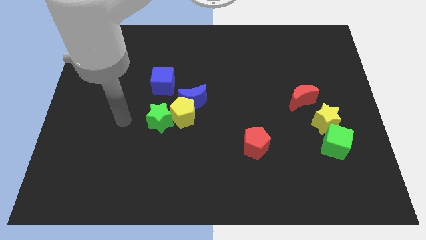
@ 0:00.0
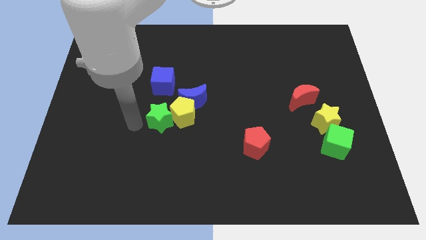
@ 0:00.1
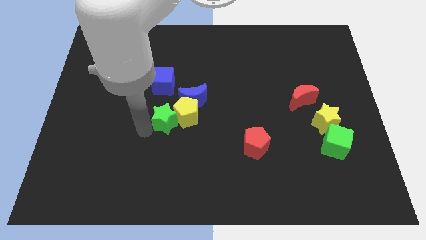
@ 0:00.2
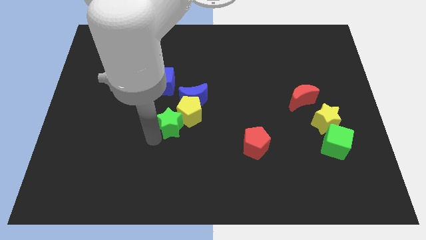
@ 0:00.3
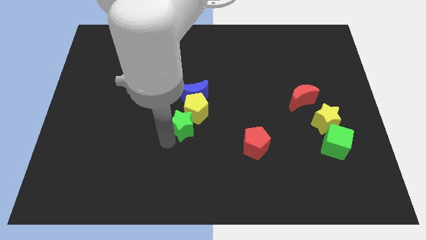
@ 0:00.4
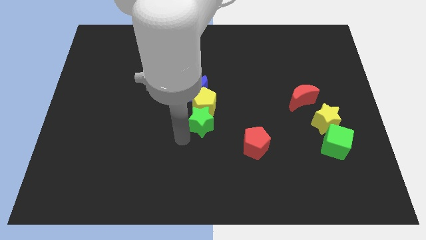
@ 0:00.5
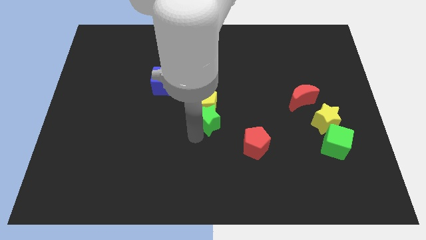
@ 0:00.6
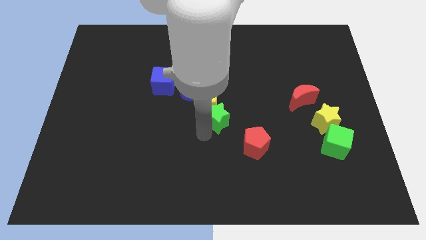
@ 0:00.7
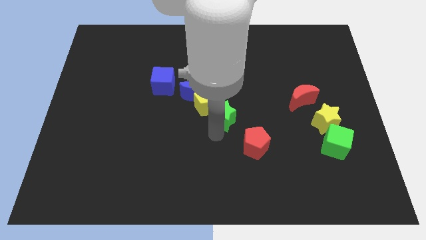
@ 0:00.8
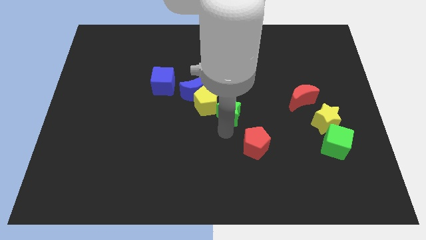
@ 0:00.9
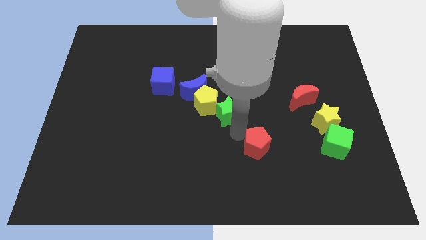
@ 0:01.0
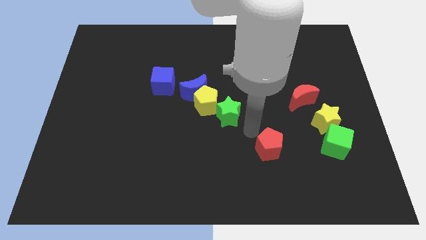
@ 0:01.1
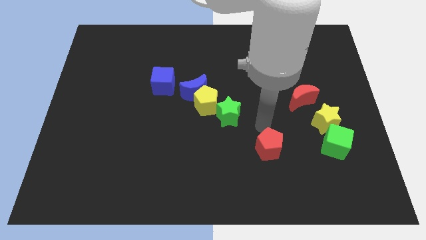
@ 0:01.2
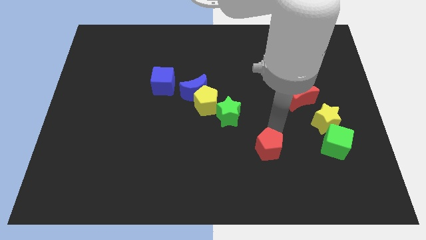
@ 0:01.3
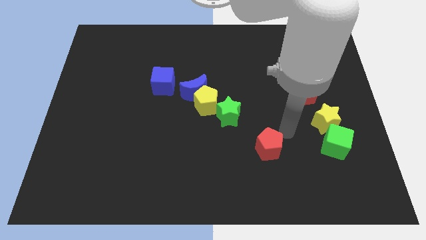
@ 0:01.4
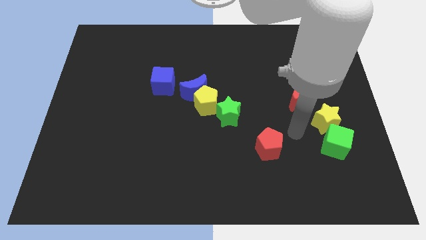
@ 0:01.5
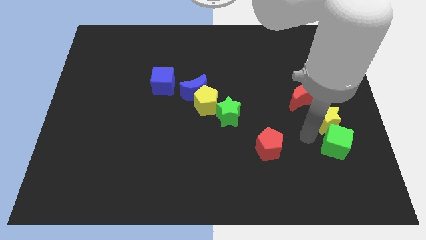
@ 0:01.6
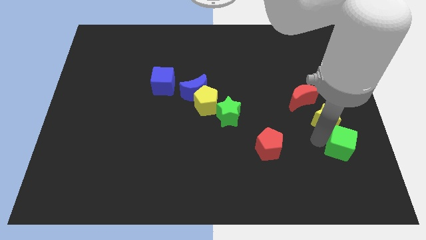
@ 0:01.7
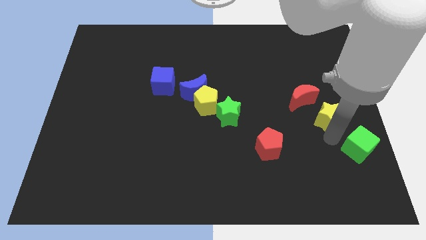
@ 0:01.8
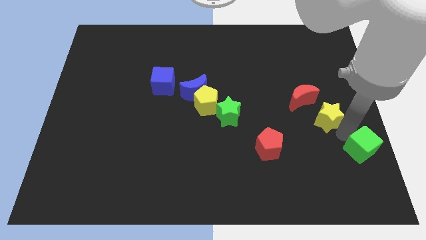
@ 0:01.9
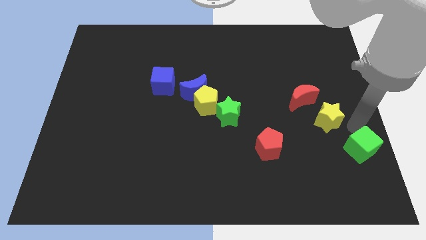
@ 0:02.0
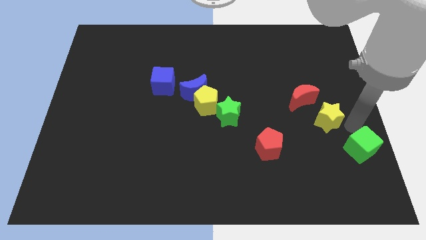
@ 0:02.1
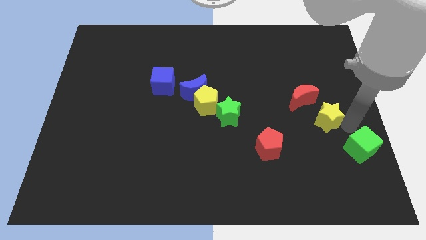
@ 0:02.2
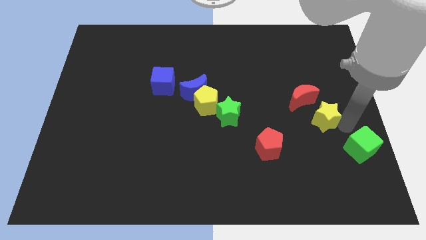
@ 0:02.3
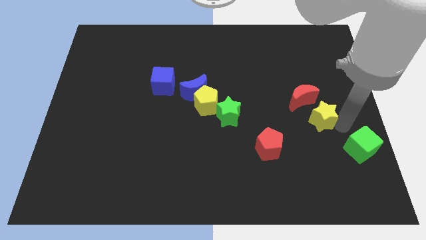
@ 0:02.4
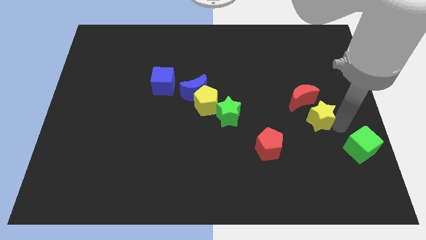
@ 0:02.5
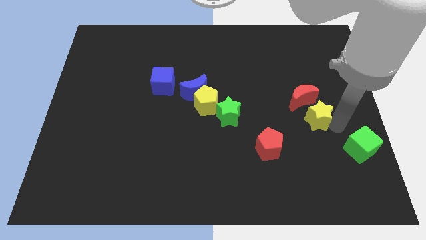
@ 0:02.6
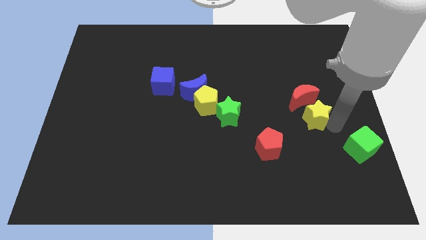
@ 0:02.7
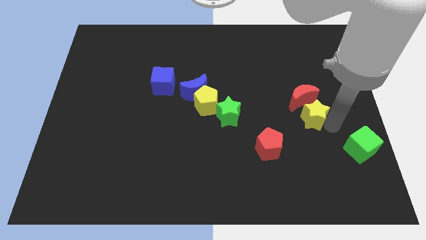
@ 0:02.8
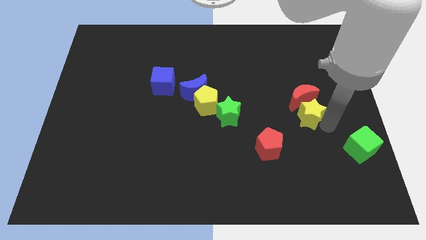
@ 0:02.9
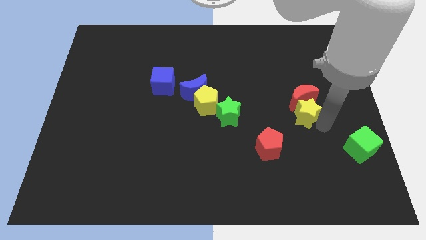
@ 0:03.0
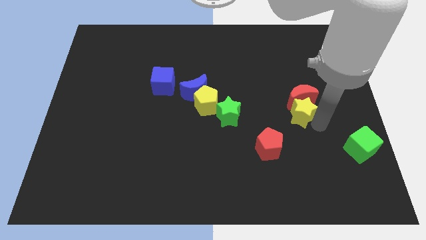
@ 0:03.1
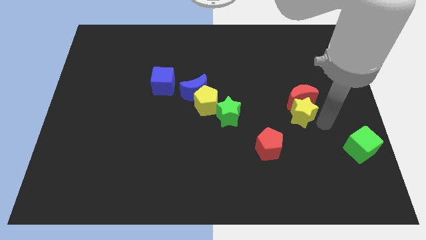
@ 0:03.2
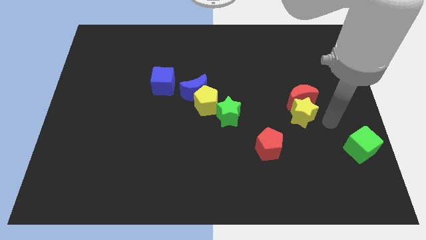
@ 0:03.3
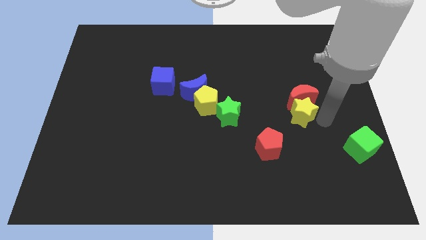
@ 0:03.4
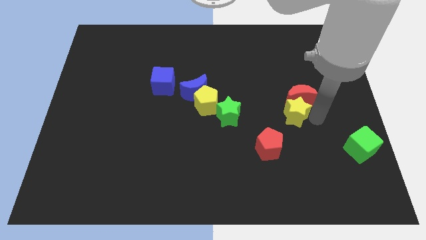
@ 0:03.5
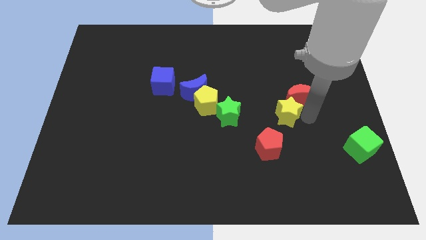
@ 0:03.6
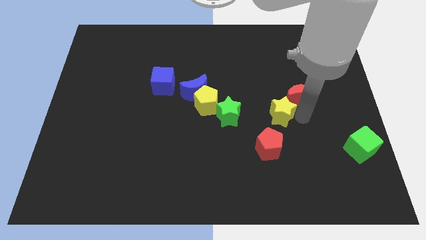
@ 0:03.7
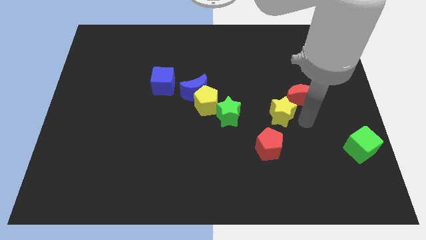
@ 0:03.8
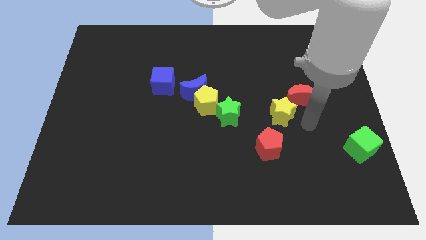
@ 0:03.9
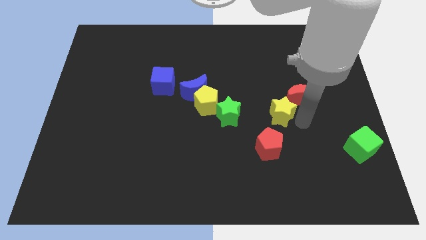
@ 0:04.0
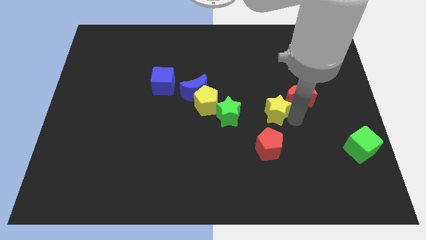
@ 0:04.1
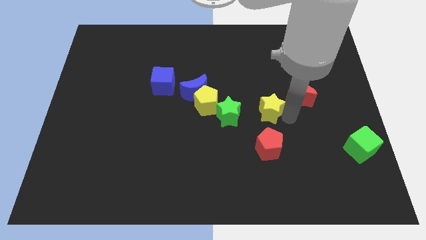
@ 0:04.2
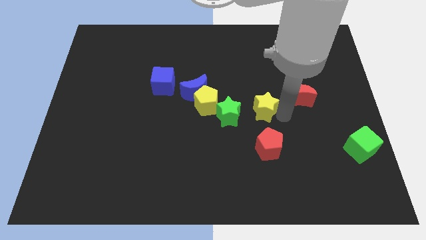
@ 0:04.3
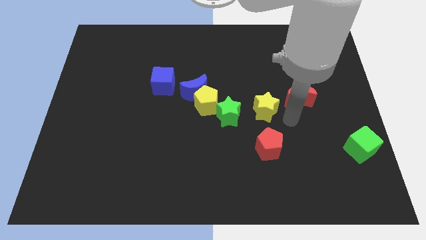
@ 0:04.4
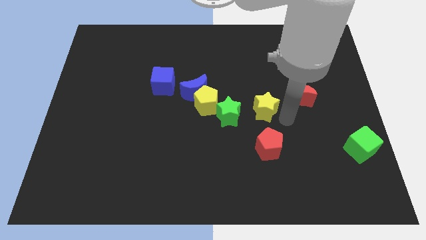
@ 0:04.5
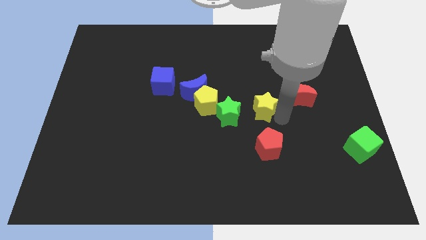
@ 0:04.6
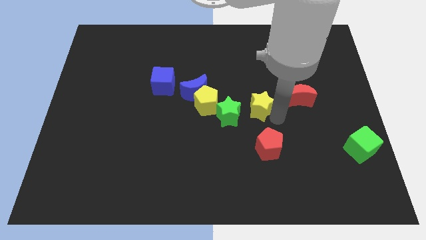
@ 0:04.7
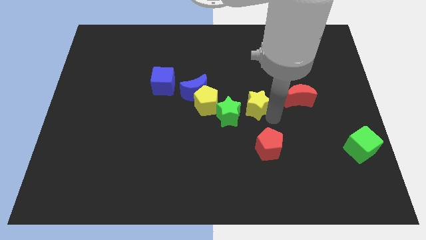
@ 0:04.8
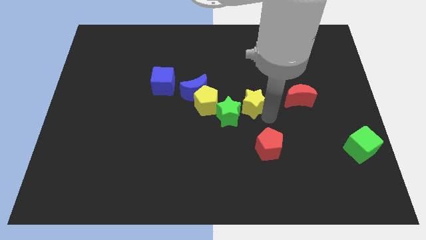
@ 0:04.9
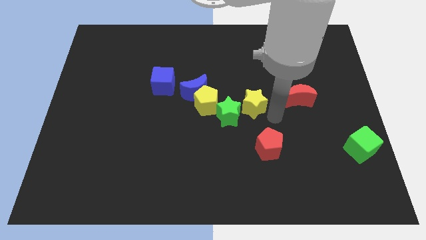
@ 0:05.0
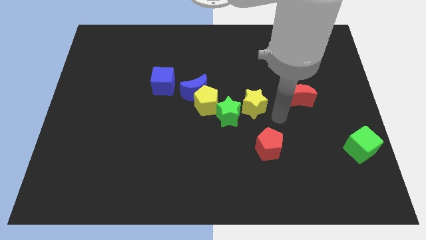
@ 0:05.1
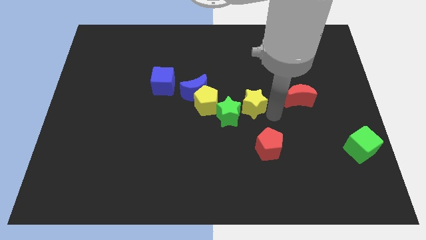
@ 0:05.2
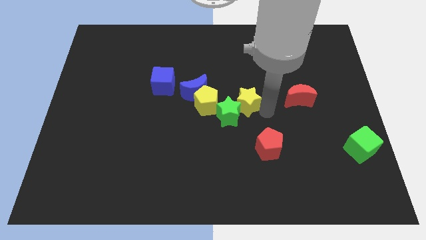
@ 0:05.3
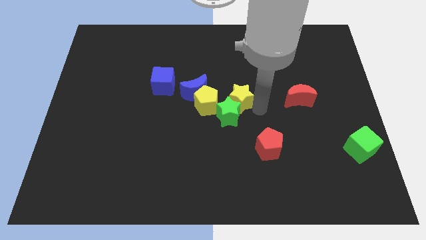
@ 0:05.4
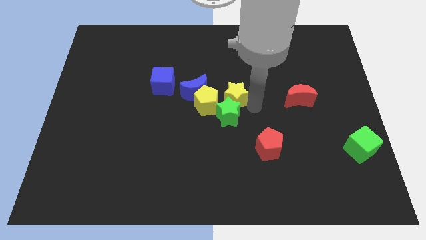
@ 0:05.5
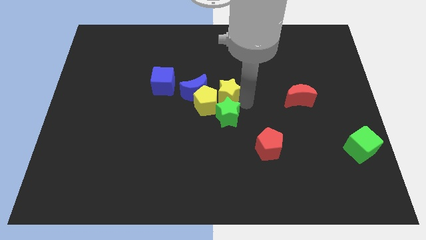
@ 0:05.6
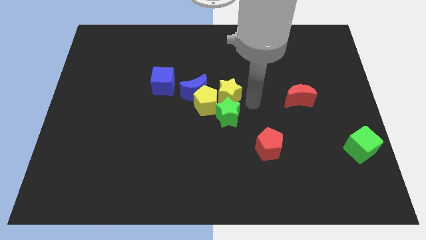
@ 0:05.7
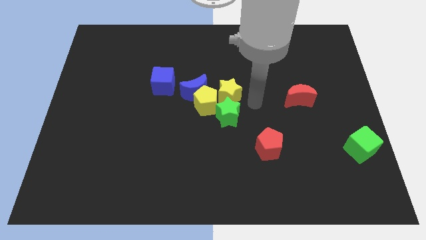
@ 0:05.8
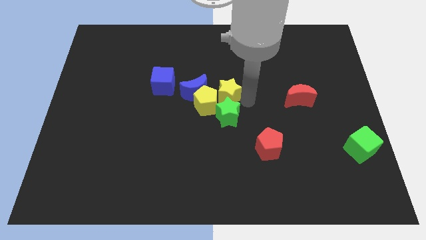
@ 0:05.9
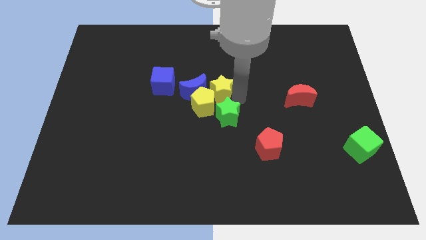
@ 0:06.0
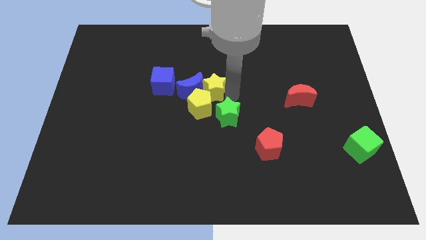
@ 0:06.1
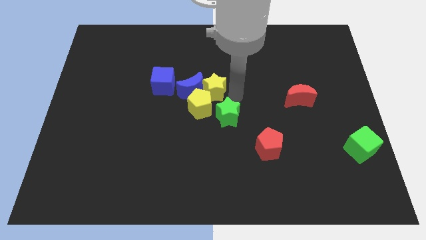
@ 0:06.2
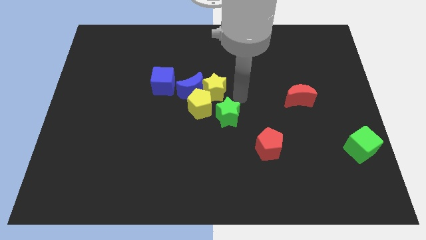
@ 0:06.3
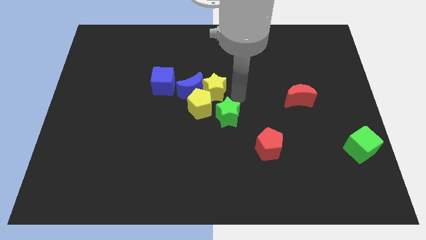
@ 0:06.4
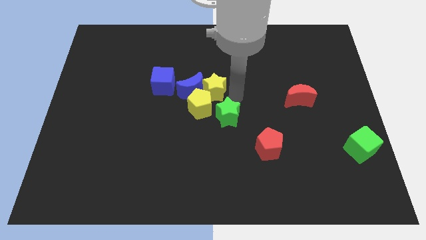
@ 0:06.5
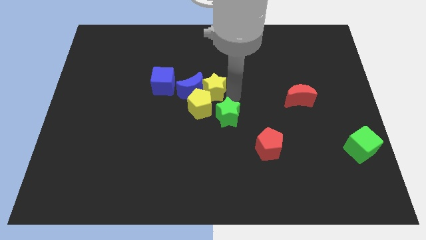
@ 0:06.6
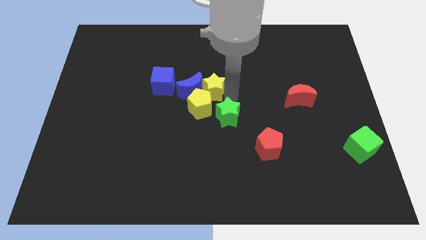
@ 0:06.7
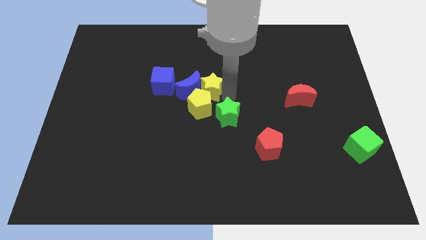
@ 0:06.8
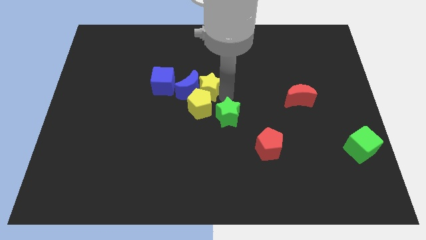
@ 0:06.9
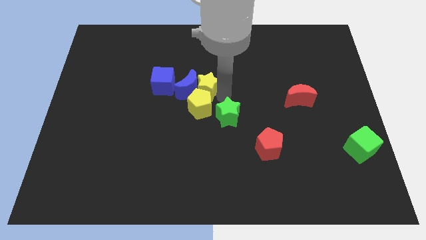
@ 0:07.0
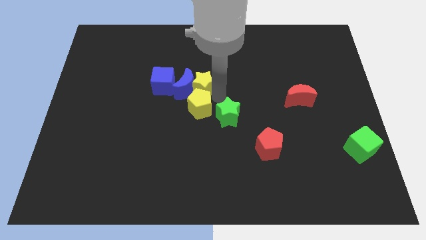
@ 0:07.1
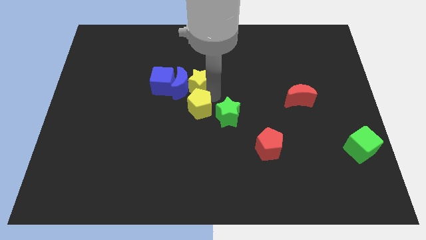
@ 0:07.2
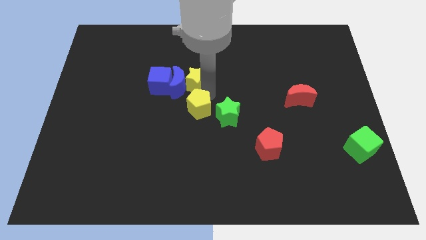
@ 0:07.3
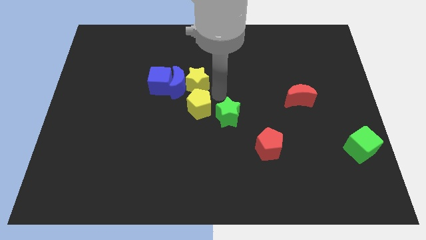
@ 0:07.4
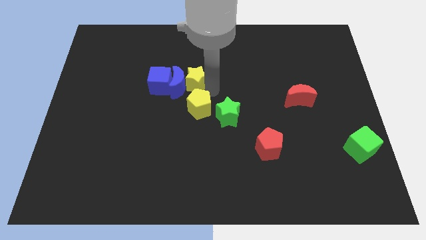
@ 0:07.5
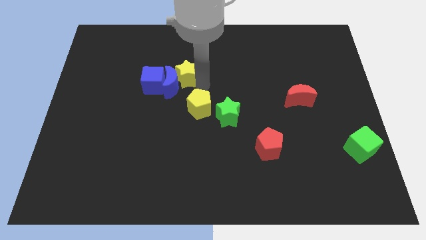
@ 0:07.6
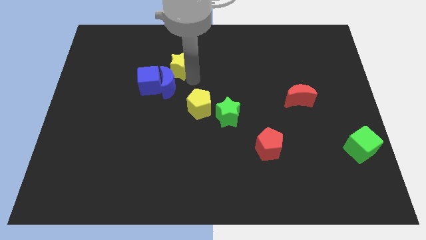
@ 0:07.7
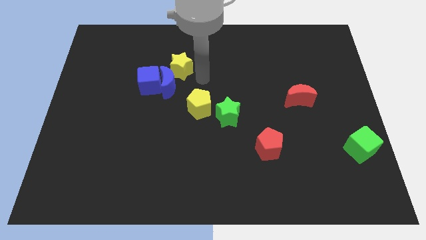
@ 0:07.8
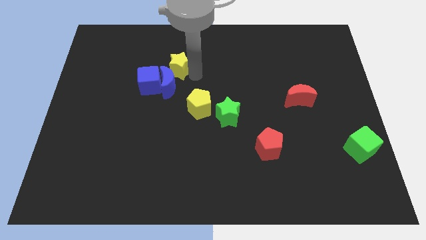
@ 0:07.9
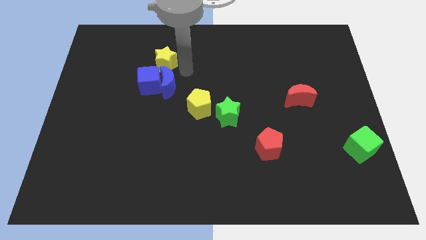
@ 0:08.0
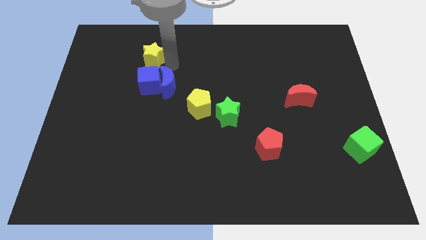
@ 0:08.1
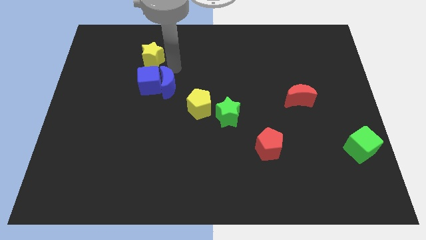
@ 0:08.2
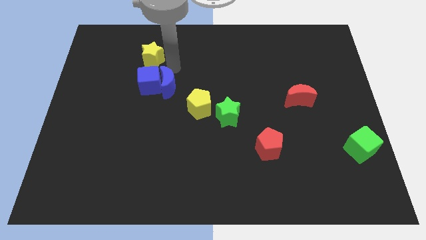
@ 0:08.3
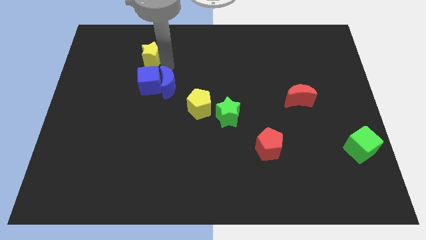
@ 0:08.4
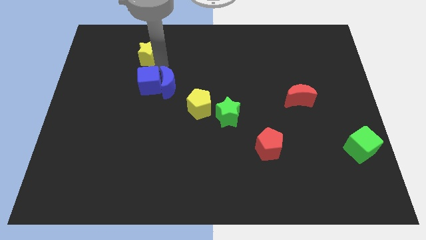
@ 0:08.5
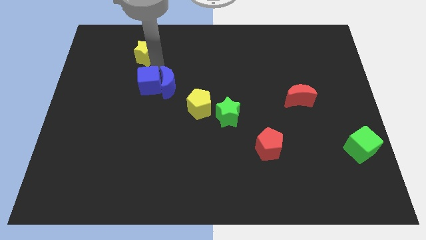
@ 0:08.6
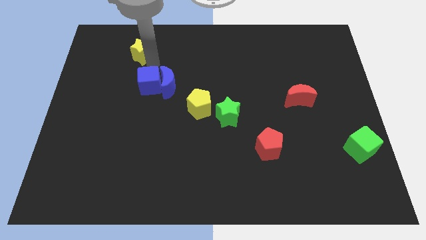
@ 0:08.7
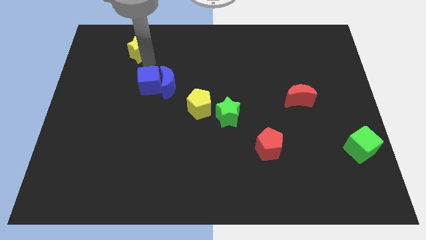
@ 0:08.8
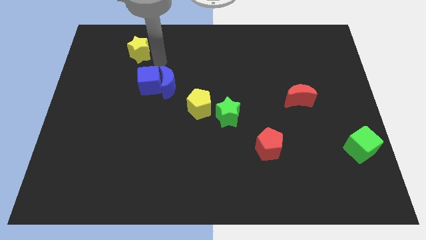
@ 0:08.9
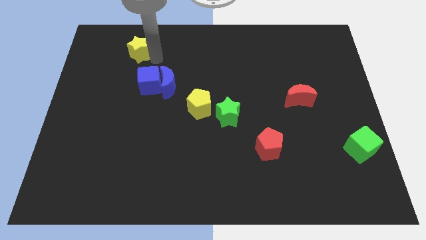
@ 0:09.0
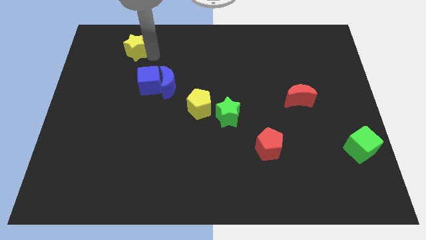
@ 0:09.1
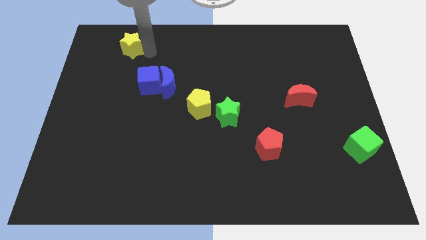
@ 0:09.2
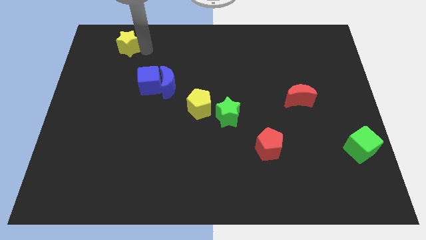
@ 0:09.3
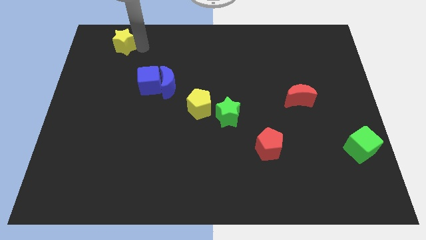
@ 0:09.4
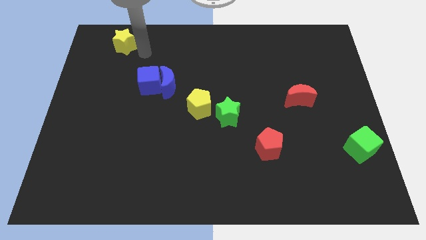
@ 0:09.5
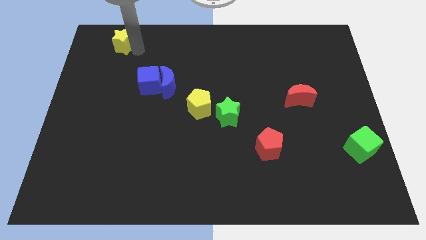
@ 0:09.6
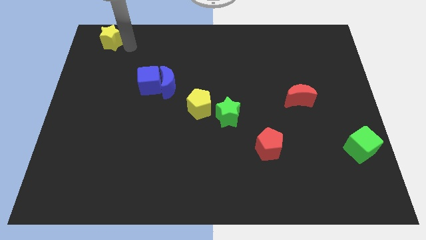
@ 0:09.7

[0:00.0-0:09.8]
move the yellow star to the upper left corner
